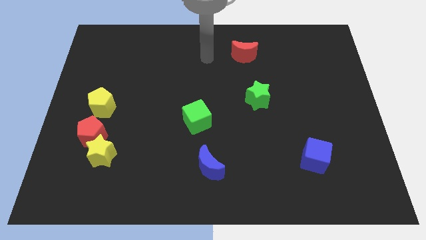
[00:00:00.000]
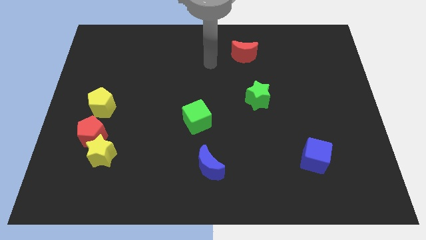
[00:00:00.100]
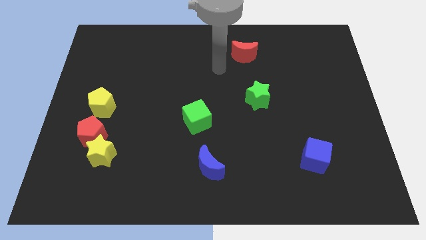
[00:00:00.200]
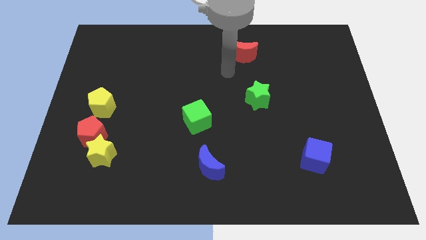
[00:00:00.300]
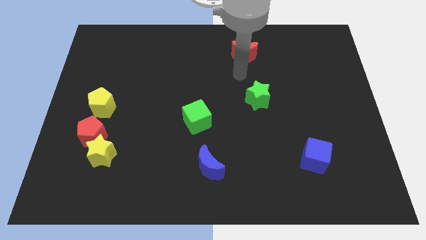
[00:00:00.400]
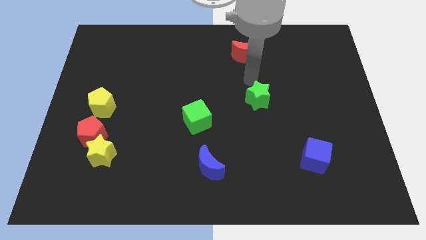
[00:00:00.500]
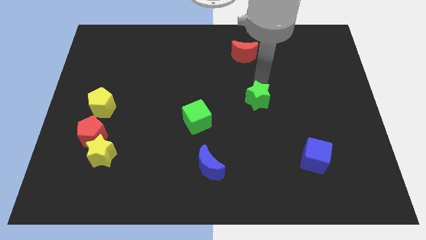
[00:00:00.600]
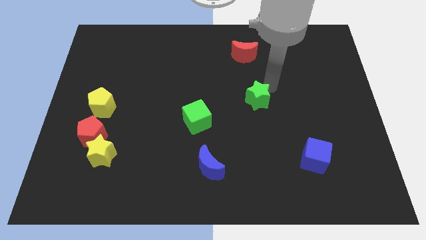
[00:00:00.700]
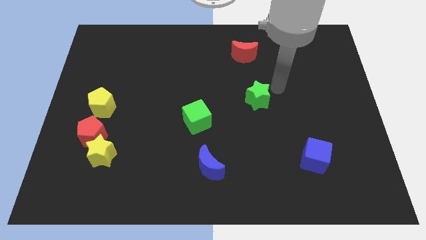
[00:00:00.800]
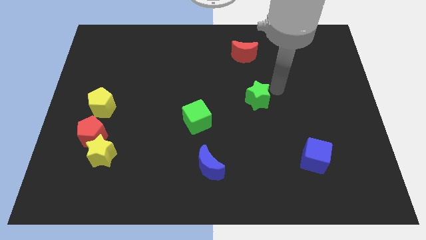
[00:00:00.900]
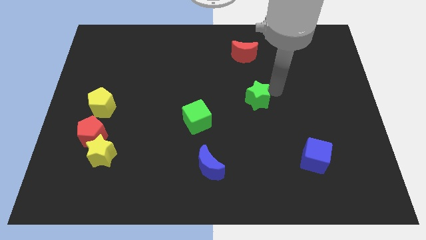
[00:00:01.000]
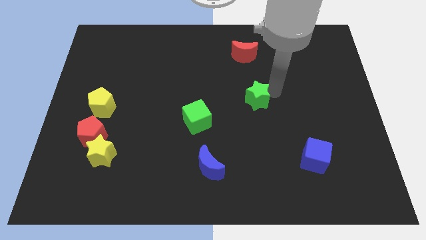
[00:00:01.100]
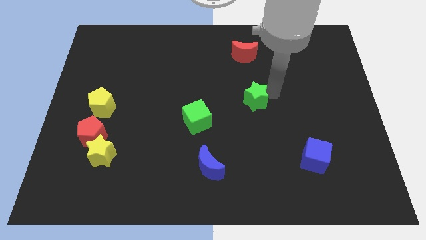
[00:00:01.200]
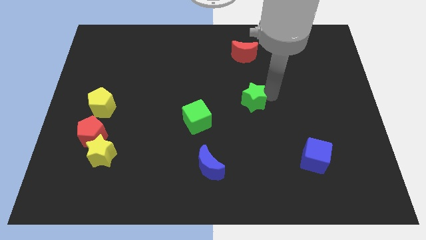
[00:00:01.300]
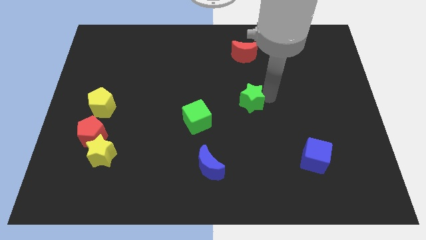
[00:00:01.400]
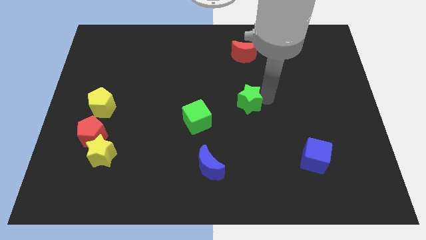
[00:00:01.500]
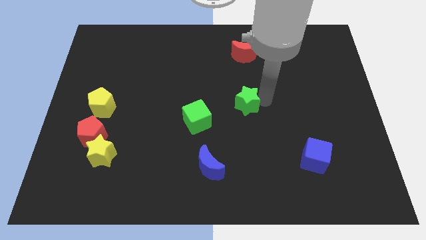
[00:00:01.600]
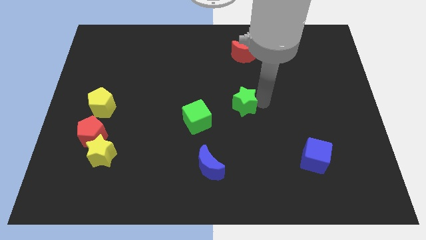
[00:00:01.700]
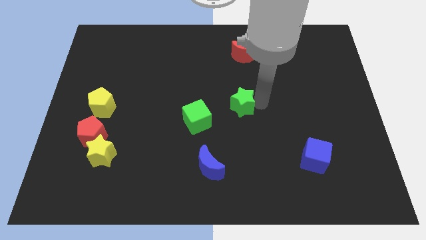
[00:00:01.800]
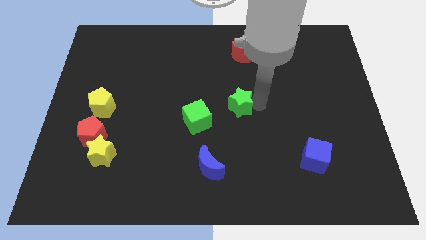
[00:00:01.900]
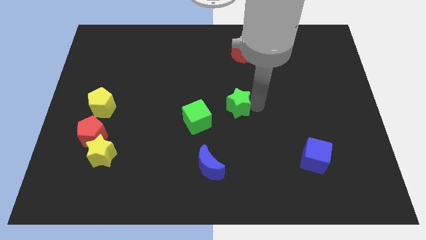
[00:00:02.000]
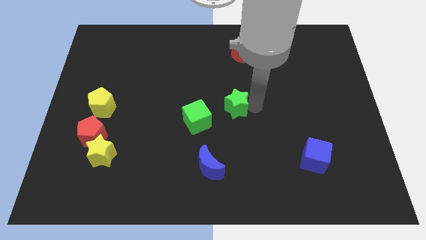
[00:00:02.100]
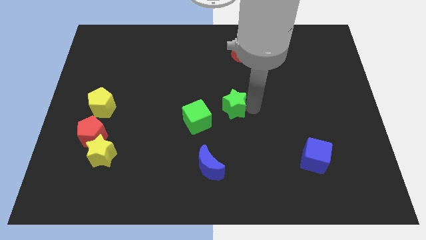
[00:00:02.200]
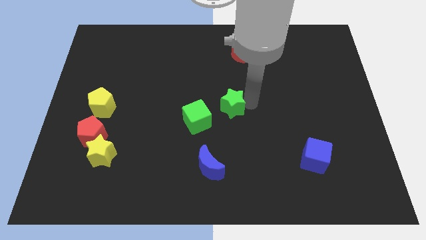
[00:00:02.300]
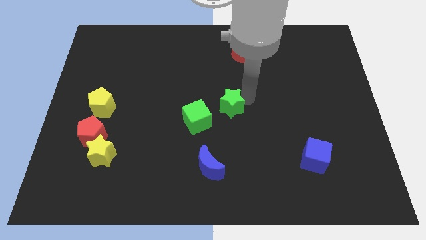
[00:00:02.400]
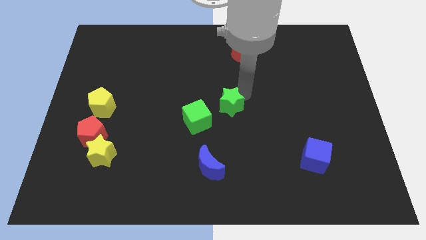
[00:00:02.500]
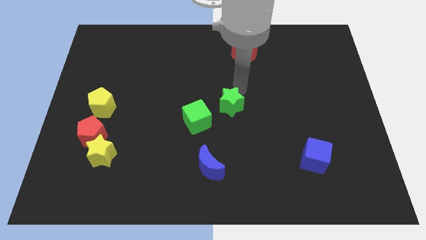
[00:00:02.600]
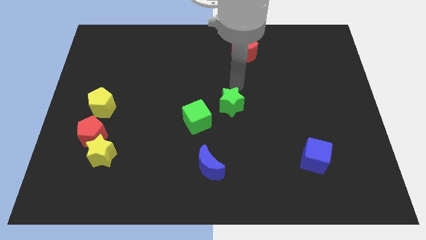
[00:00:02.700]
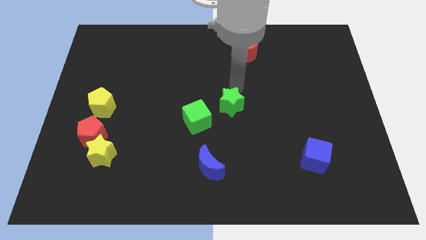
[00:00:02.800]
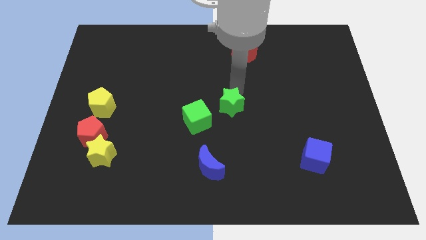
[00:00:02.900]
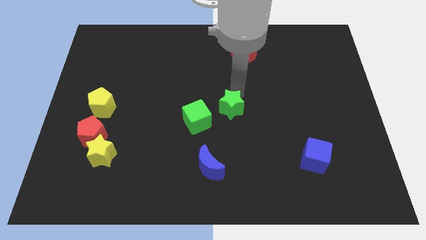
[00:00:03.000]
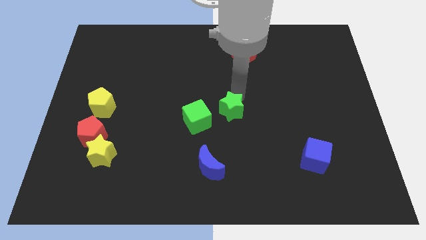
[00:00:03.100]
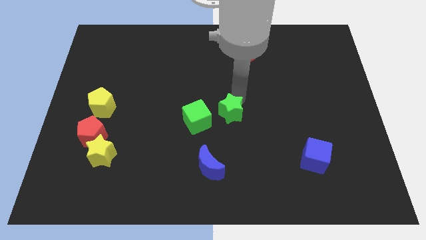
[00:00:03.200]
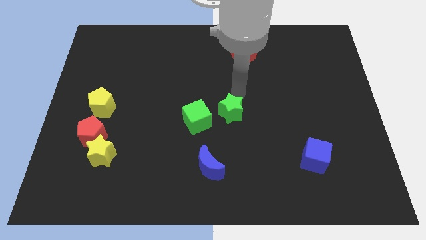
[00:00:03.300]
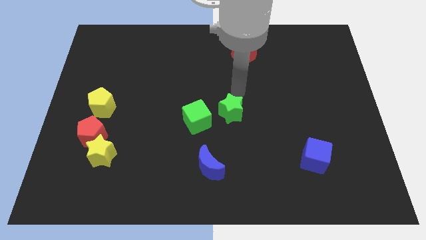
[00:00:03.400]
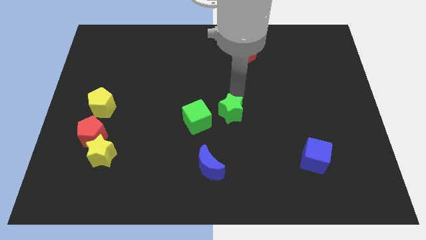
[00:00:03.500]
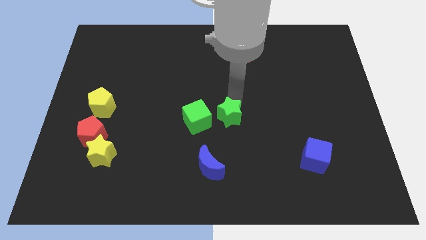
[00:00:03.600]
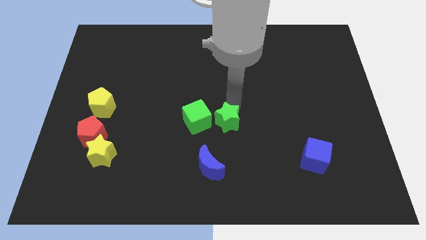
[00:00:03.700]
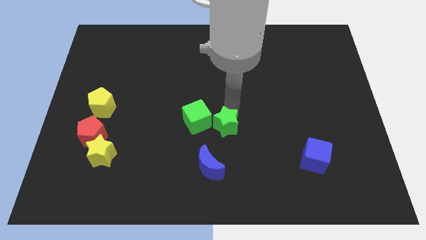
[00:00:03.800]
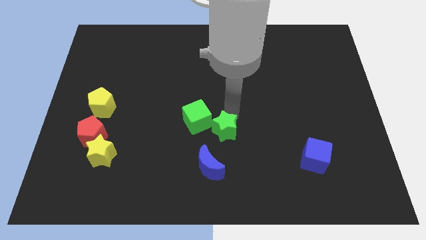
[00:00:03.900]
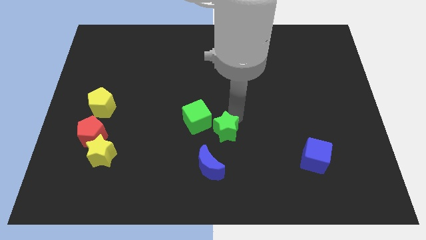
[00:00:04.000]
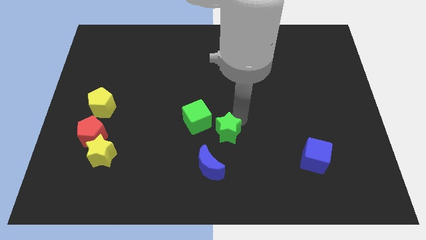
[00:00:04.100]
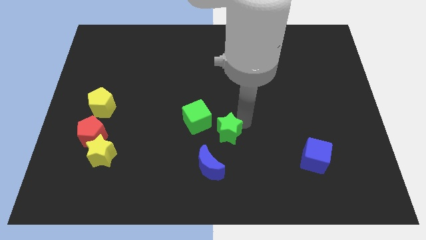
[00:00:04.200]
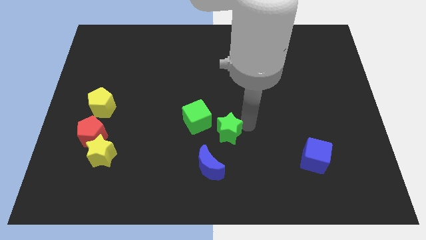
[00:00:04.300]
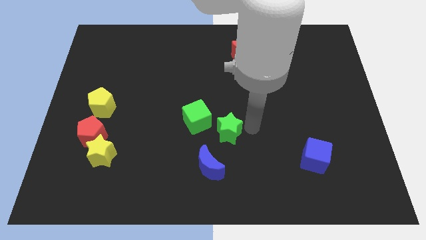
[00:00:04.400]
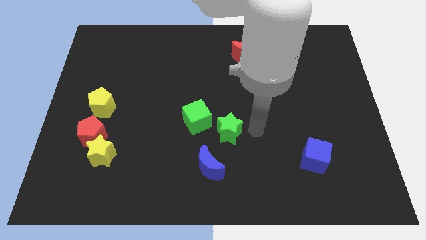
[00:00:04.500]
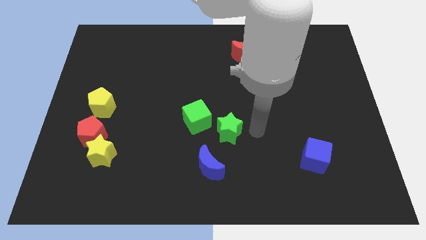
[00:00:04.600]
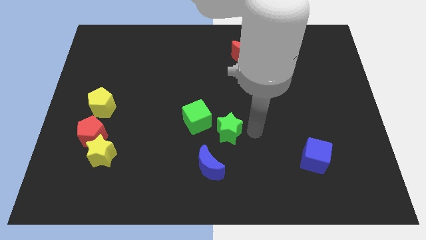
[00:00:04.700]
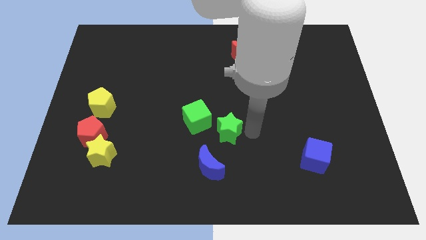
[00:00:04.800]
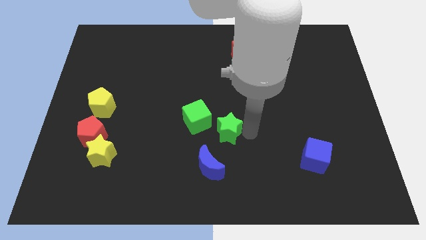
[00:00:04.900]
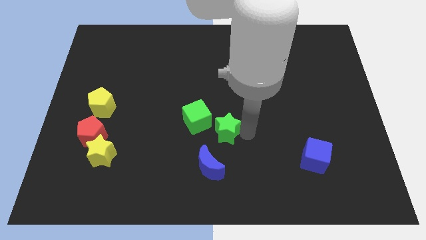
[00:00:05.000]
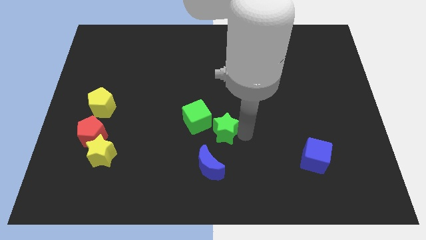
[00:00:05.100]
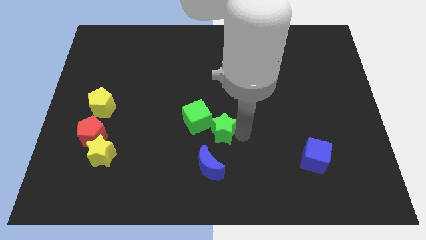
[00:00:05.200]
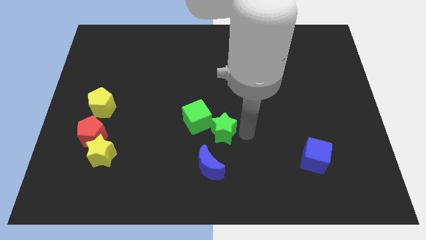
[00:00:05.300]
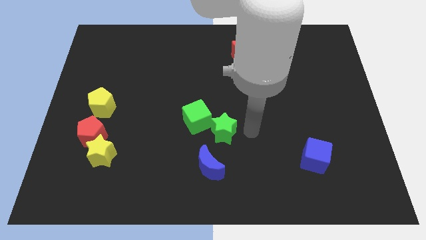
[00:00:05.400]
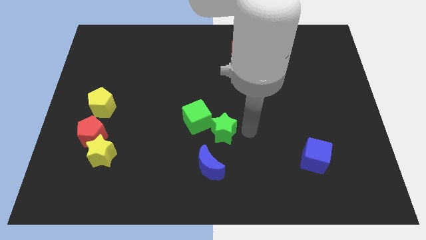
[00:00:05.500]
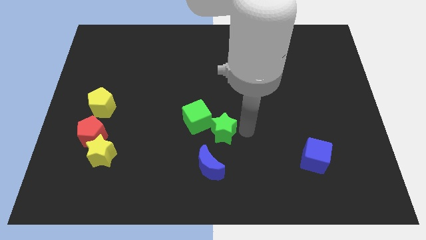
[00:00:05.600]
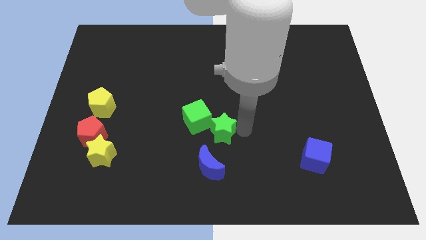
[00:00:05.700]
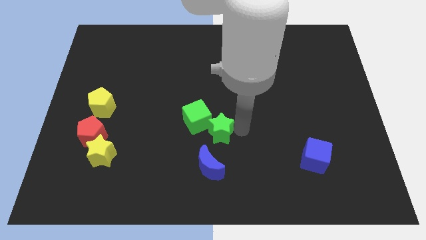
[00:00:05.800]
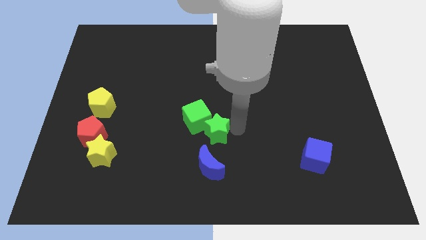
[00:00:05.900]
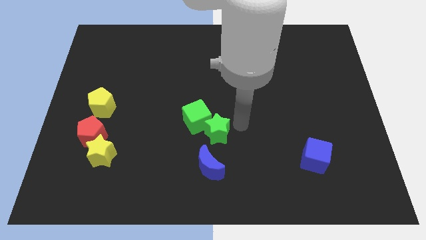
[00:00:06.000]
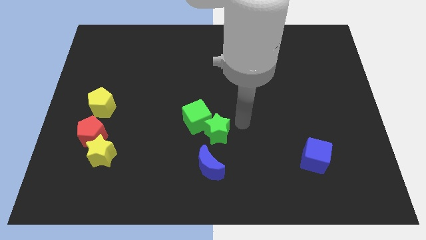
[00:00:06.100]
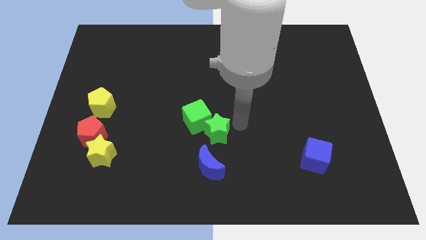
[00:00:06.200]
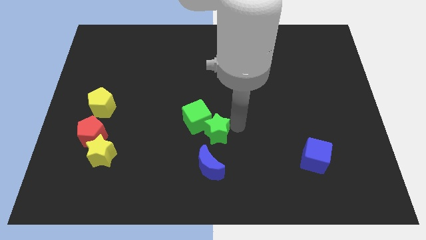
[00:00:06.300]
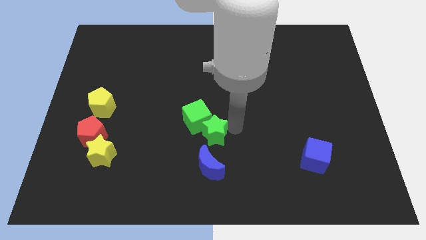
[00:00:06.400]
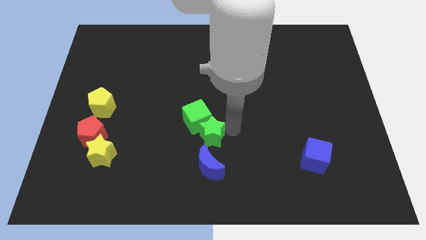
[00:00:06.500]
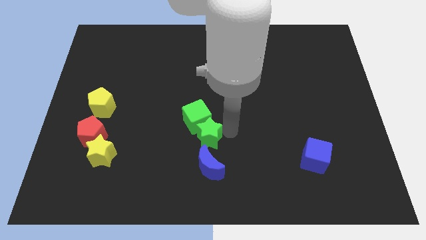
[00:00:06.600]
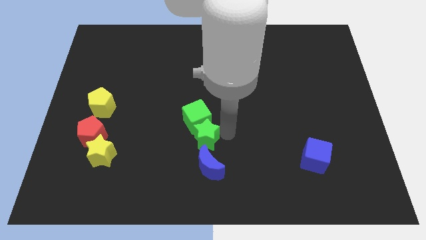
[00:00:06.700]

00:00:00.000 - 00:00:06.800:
push the green star diagonally up and to the left of the blue moon

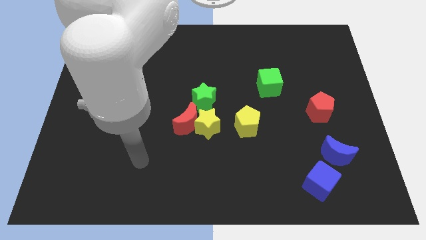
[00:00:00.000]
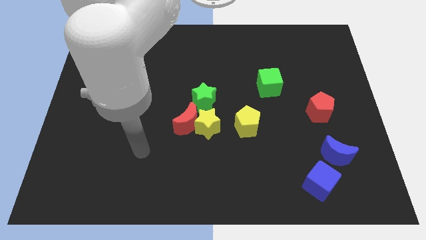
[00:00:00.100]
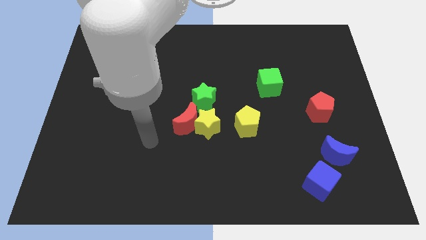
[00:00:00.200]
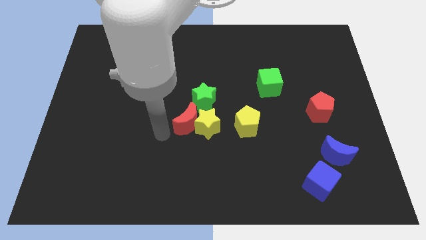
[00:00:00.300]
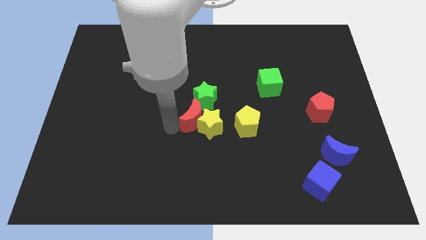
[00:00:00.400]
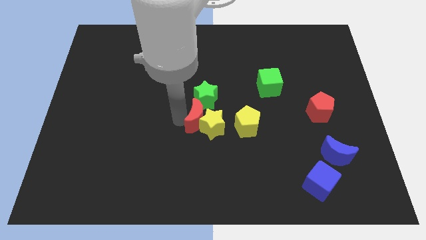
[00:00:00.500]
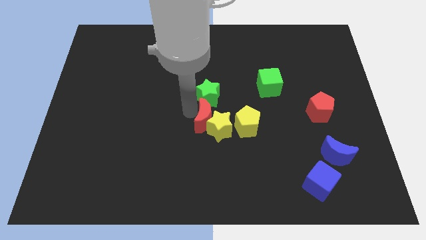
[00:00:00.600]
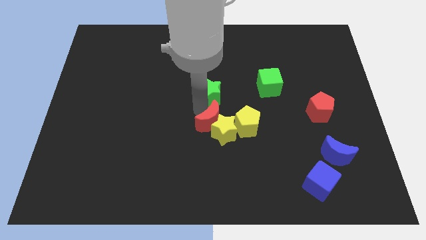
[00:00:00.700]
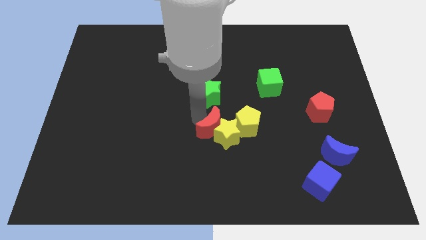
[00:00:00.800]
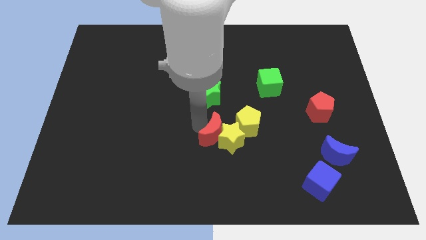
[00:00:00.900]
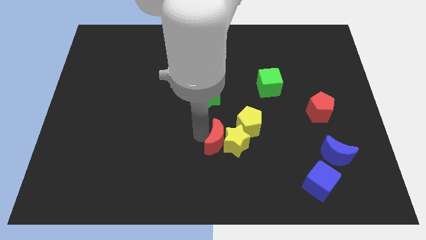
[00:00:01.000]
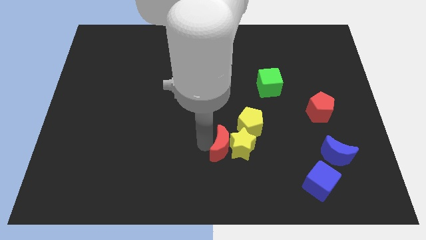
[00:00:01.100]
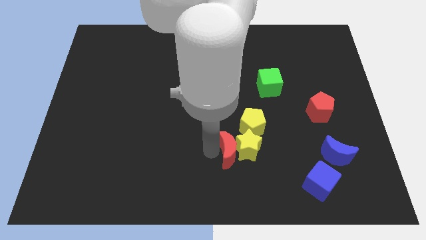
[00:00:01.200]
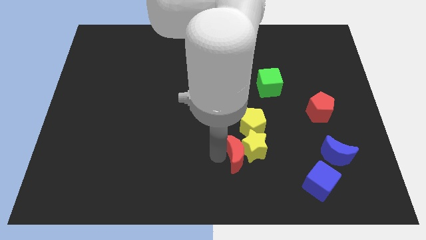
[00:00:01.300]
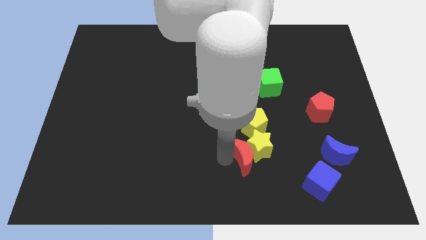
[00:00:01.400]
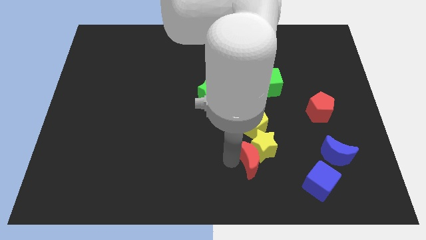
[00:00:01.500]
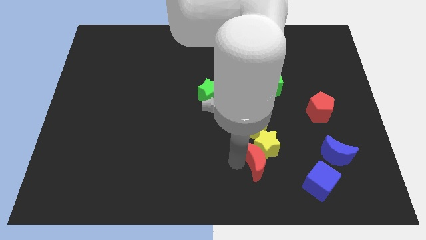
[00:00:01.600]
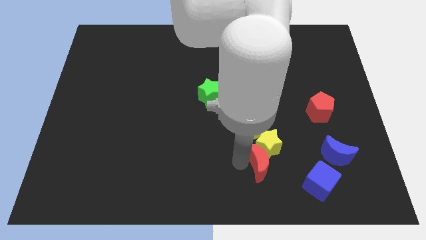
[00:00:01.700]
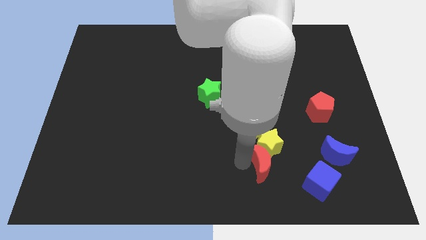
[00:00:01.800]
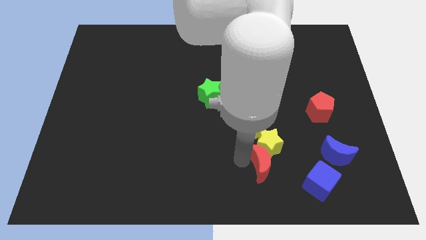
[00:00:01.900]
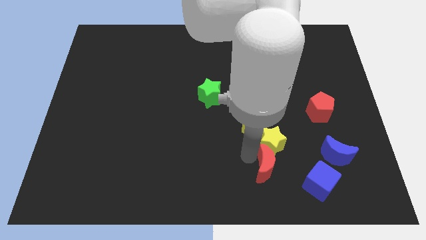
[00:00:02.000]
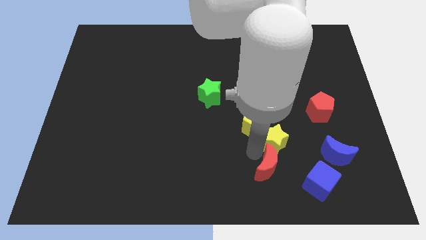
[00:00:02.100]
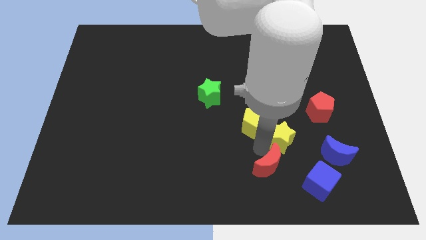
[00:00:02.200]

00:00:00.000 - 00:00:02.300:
move the yellow star to the bottom left of the red pentagon
